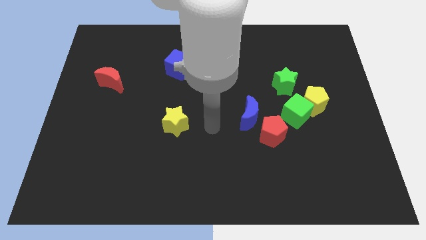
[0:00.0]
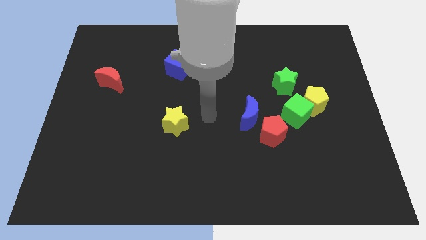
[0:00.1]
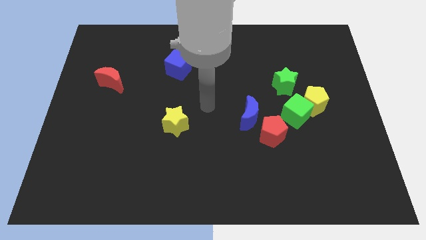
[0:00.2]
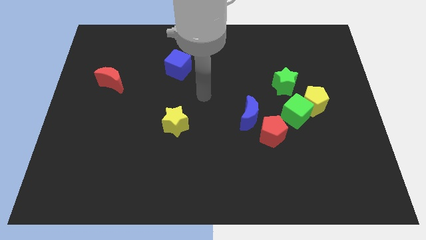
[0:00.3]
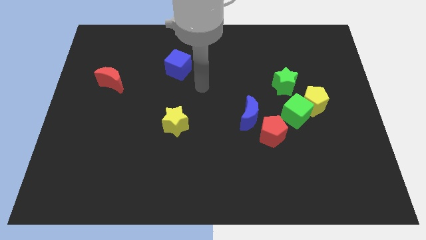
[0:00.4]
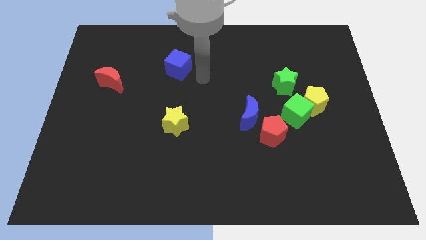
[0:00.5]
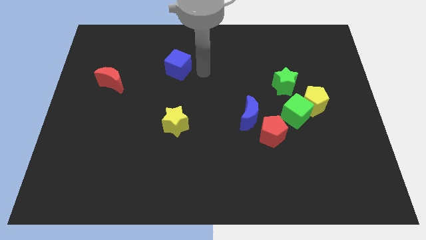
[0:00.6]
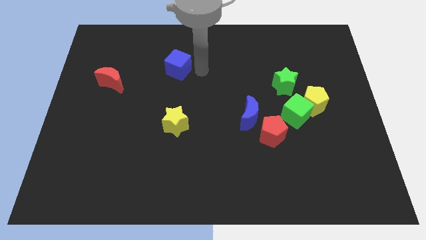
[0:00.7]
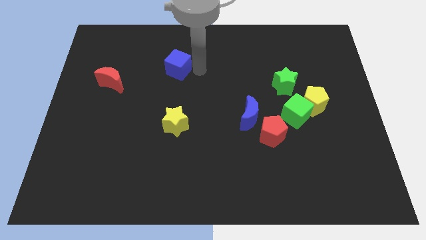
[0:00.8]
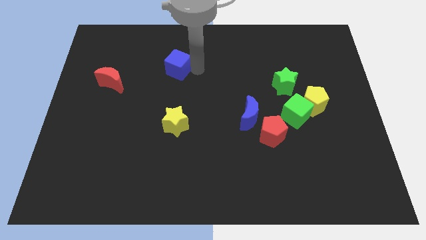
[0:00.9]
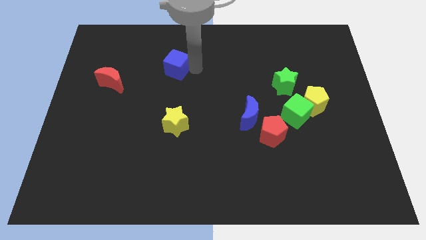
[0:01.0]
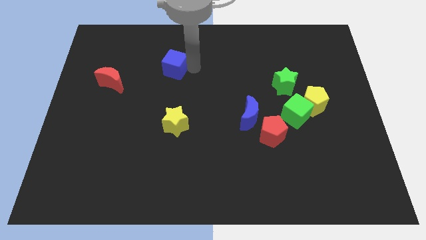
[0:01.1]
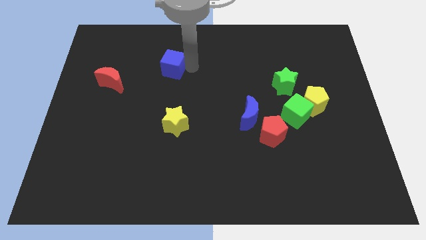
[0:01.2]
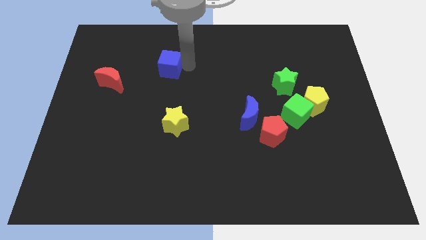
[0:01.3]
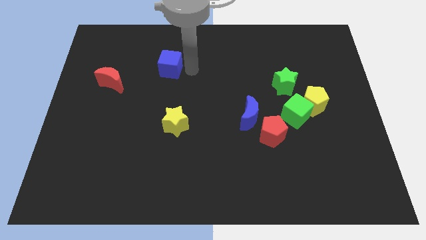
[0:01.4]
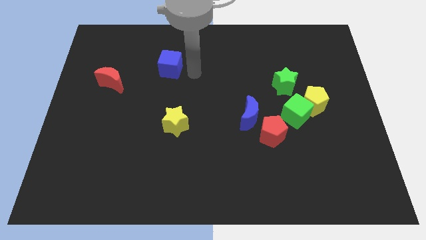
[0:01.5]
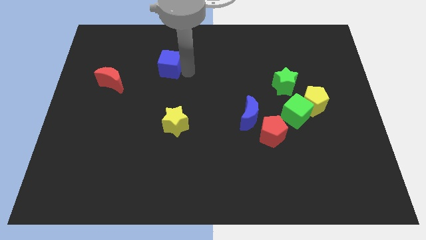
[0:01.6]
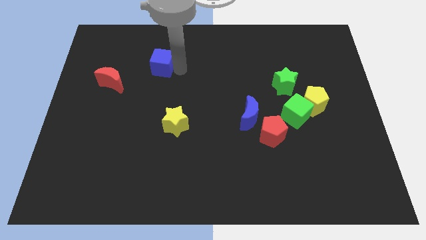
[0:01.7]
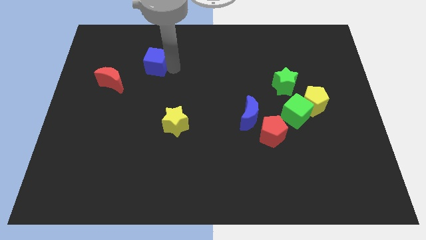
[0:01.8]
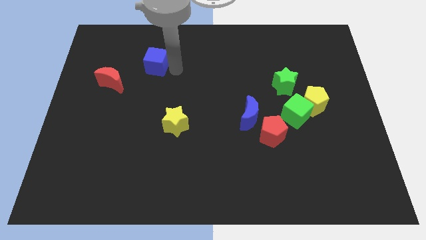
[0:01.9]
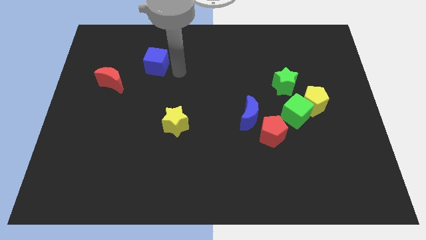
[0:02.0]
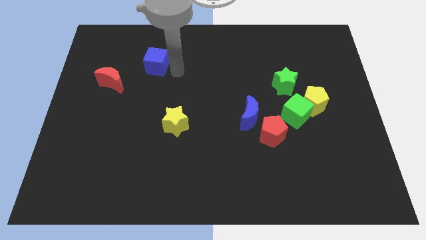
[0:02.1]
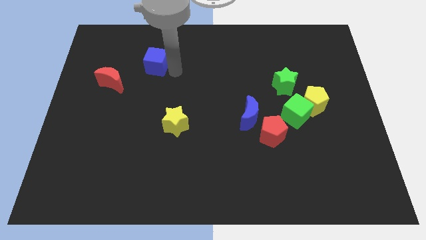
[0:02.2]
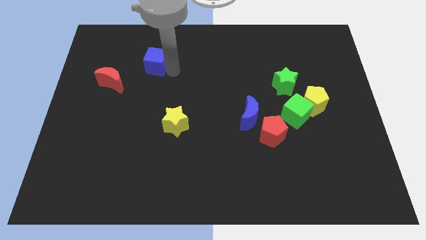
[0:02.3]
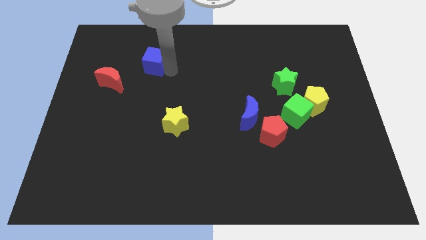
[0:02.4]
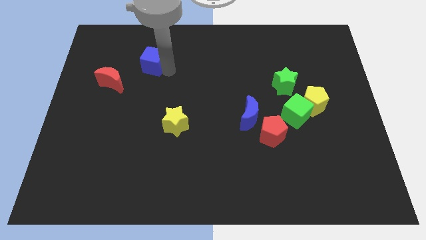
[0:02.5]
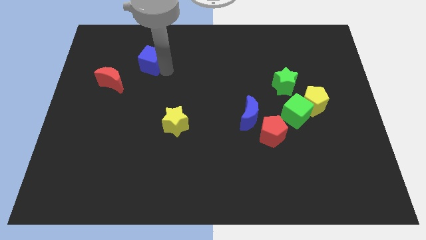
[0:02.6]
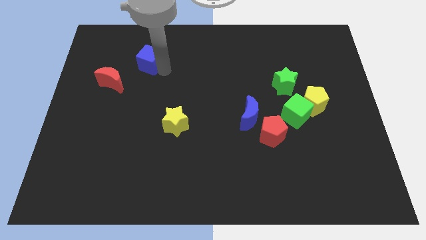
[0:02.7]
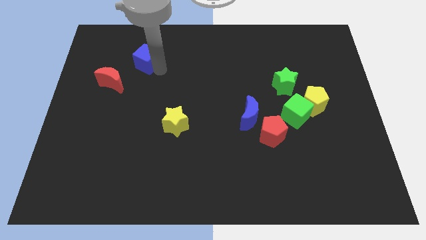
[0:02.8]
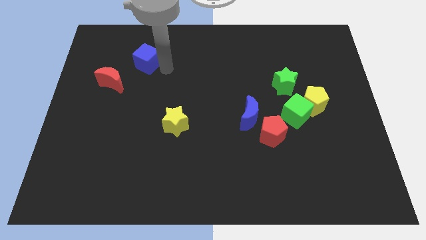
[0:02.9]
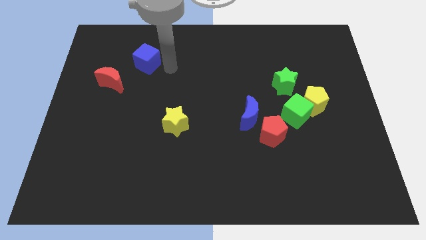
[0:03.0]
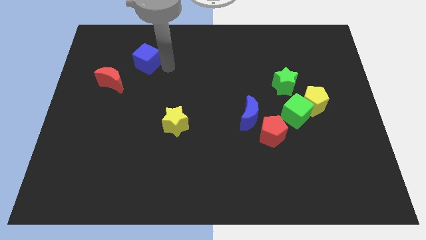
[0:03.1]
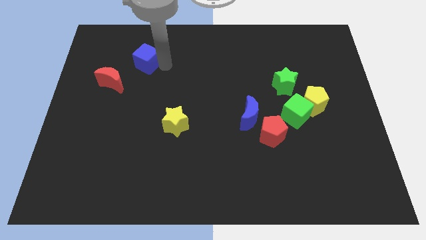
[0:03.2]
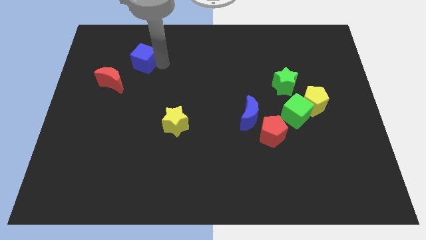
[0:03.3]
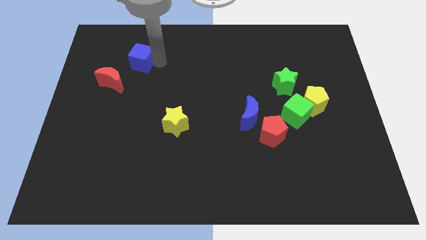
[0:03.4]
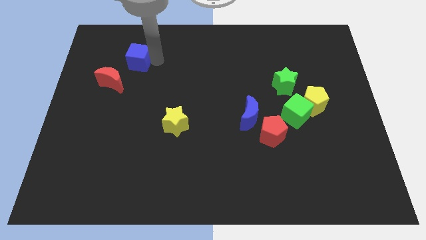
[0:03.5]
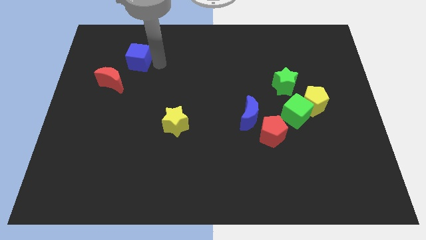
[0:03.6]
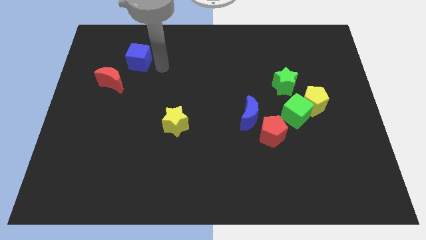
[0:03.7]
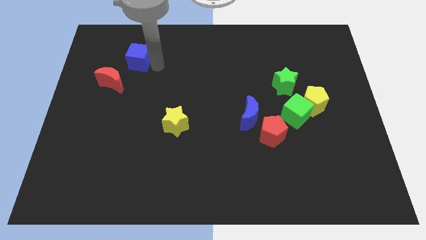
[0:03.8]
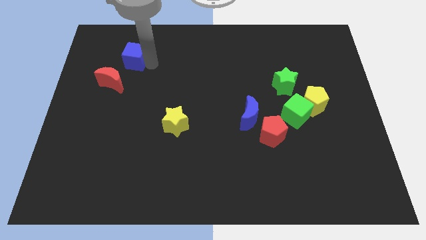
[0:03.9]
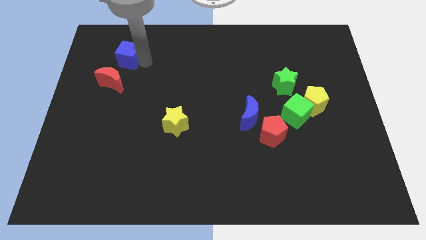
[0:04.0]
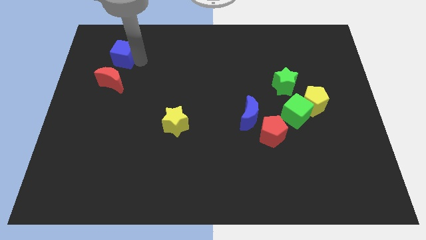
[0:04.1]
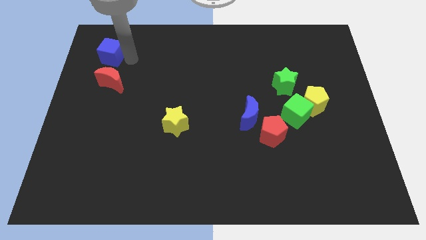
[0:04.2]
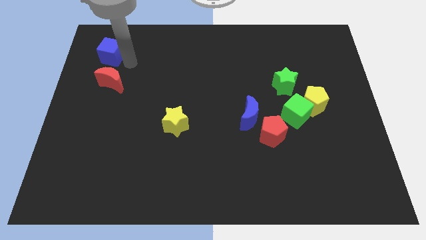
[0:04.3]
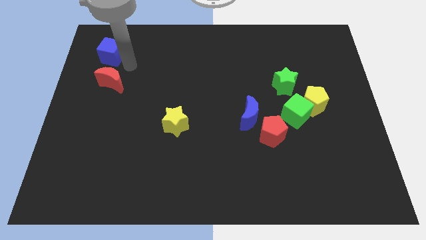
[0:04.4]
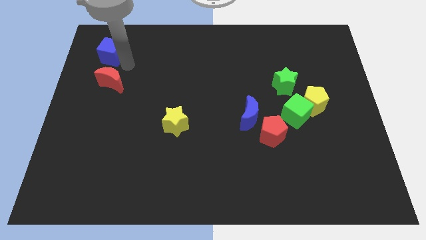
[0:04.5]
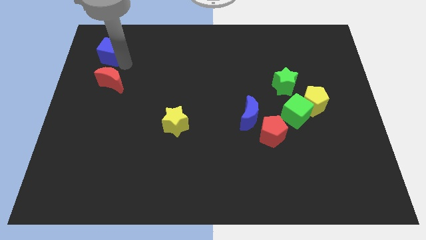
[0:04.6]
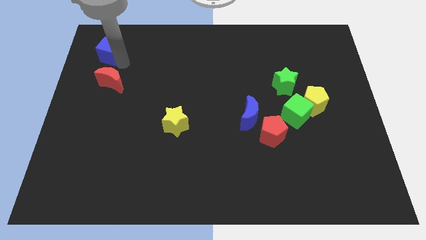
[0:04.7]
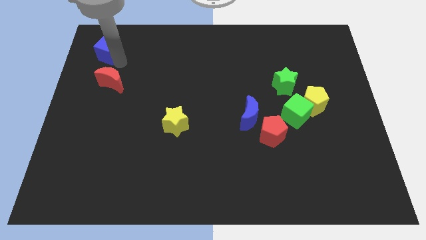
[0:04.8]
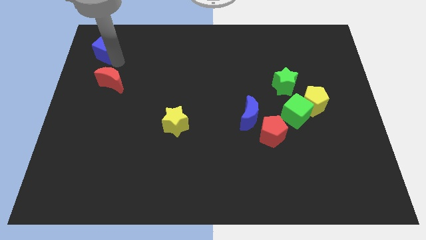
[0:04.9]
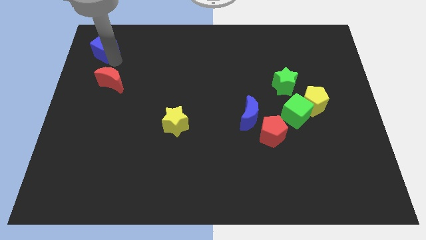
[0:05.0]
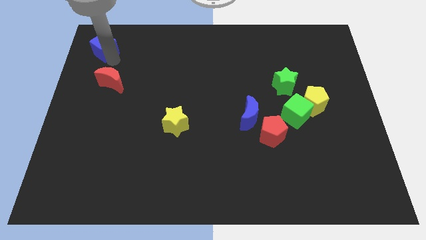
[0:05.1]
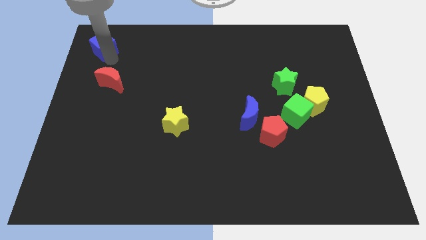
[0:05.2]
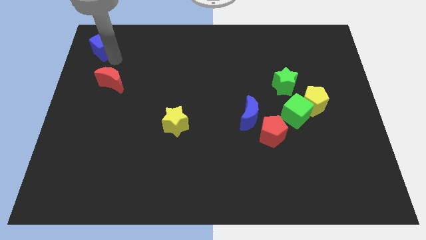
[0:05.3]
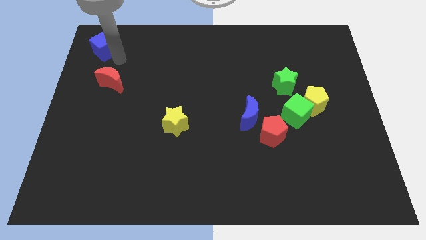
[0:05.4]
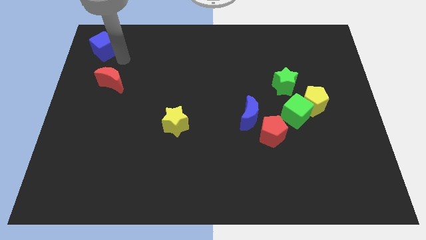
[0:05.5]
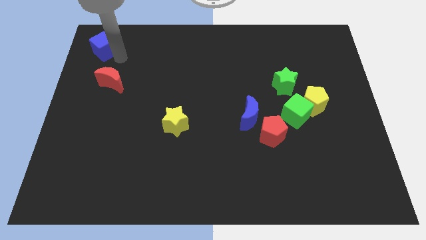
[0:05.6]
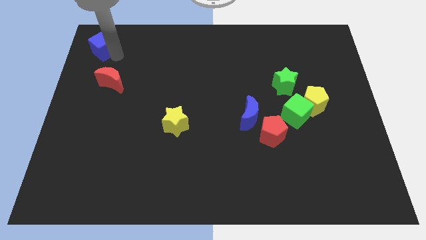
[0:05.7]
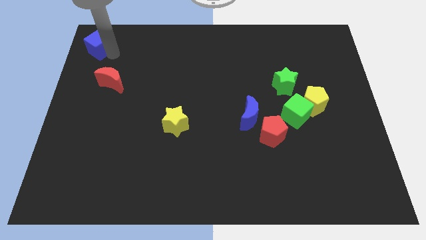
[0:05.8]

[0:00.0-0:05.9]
slide the blue cube to the top left corner

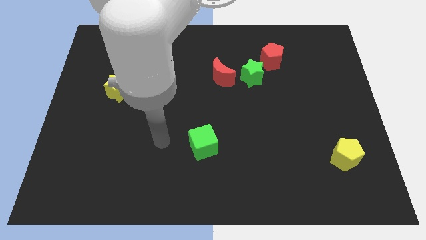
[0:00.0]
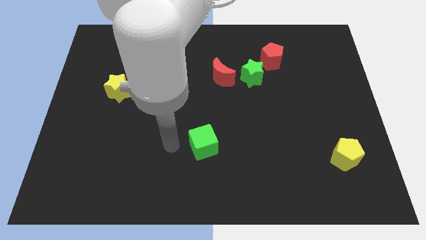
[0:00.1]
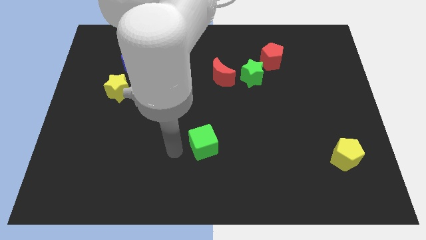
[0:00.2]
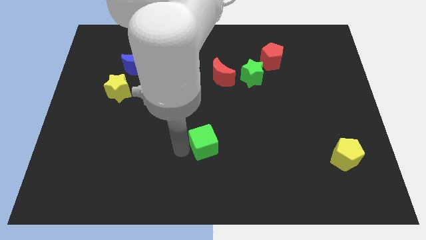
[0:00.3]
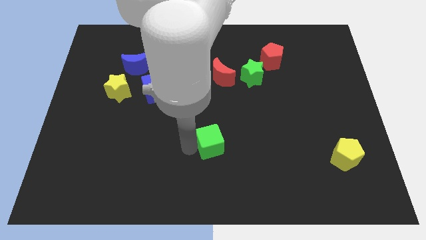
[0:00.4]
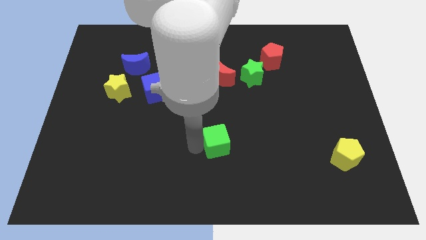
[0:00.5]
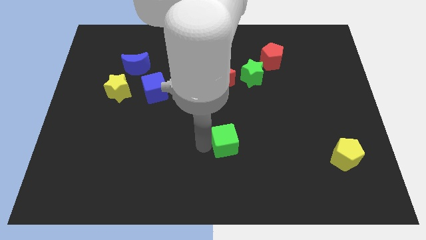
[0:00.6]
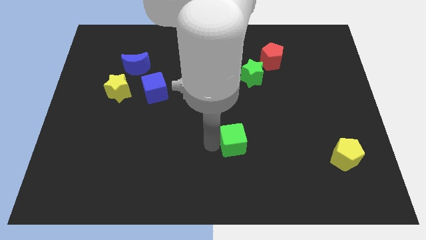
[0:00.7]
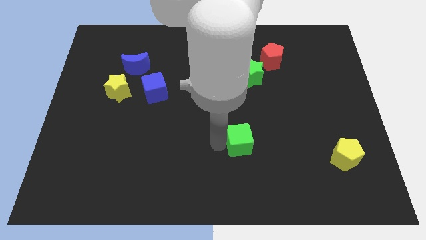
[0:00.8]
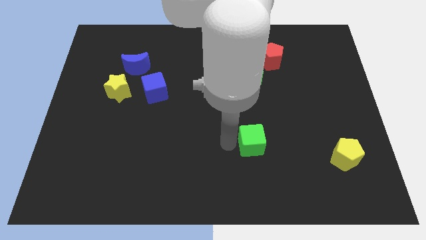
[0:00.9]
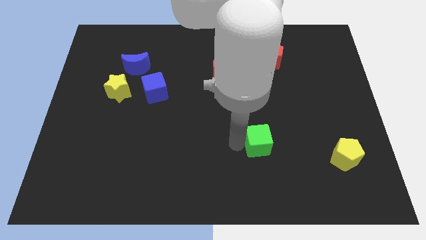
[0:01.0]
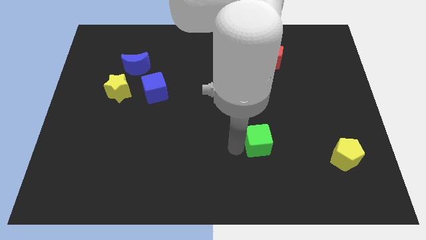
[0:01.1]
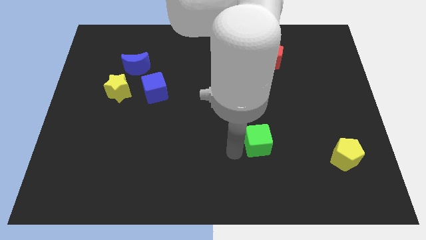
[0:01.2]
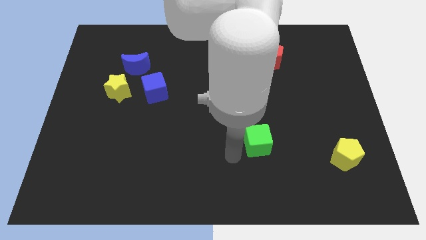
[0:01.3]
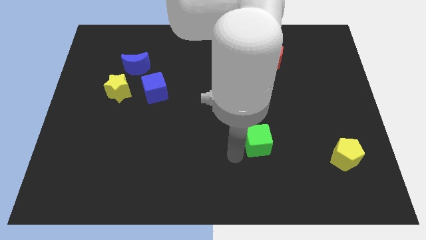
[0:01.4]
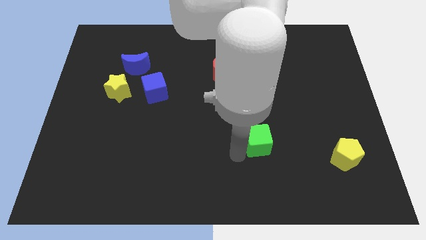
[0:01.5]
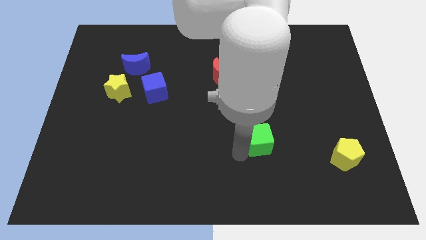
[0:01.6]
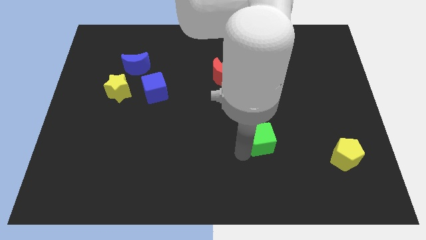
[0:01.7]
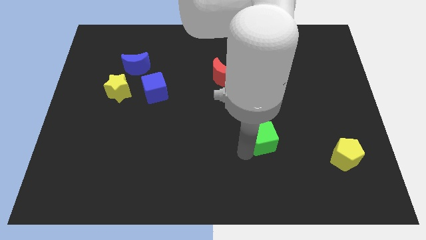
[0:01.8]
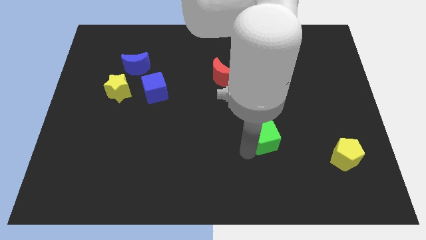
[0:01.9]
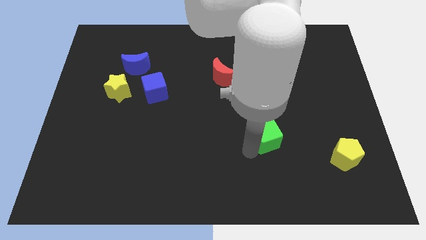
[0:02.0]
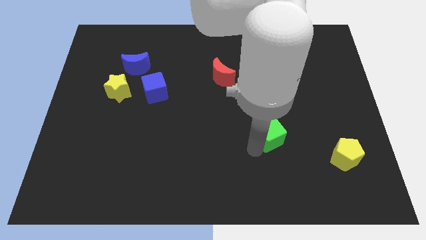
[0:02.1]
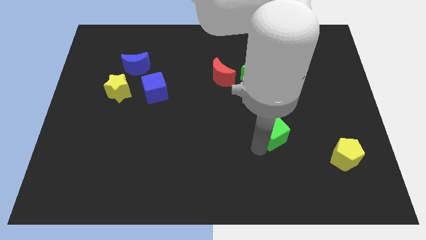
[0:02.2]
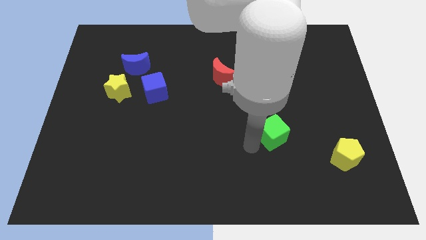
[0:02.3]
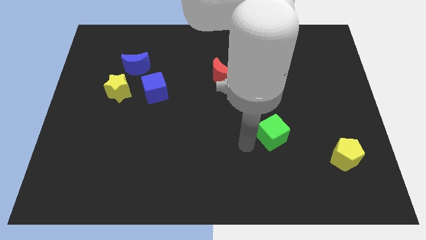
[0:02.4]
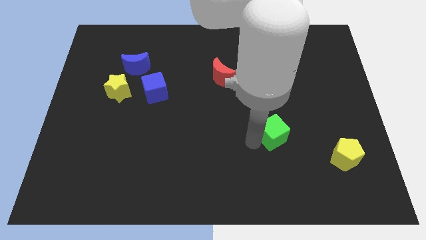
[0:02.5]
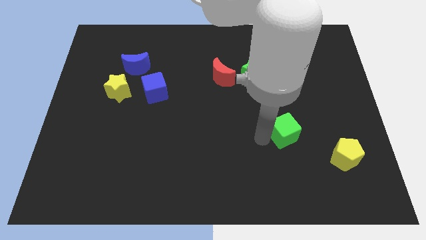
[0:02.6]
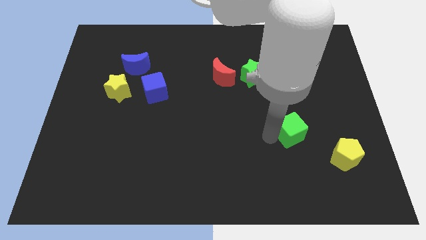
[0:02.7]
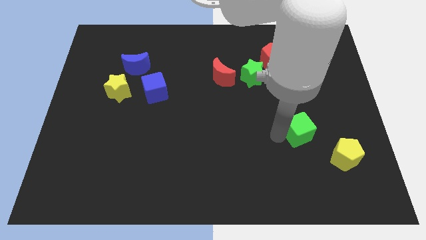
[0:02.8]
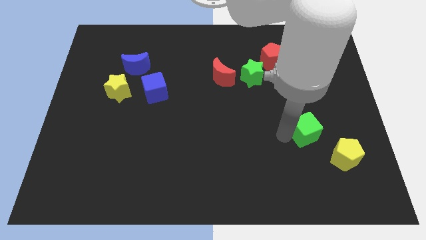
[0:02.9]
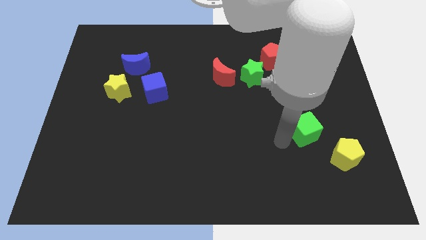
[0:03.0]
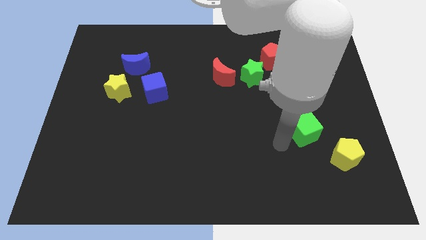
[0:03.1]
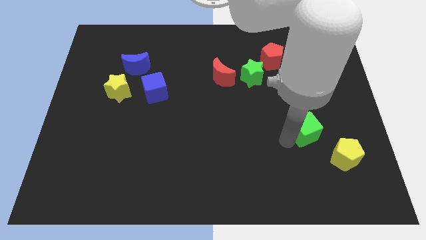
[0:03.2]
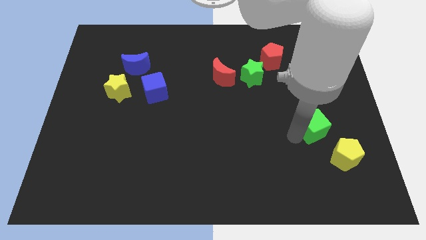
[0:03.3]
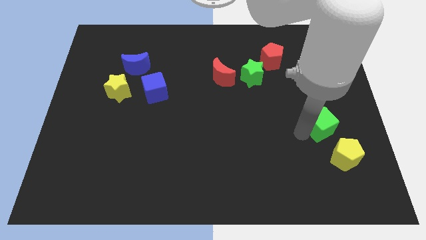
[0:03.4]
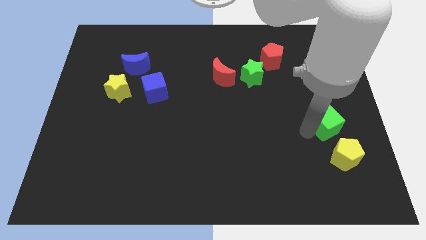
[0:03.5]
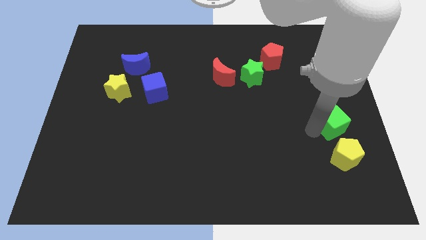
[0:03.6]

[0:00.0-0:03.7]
slide the green cube to the center right
